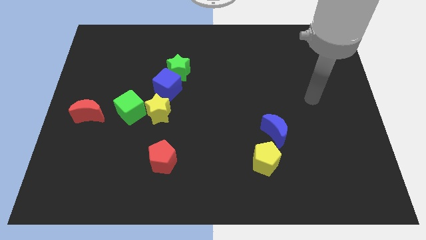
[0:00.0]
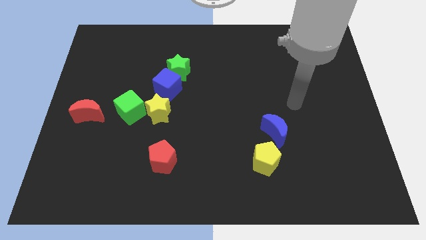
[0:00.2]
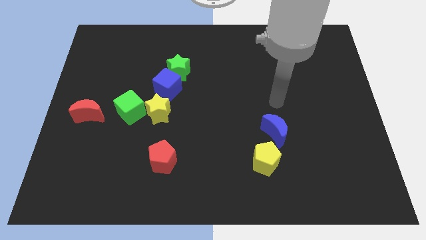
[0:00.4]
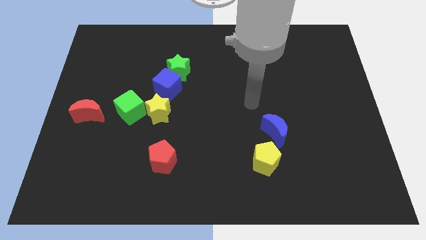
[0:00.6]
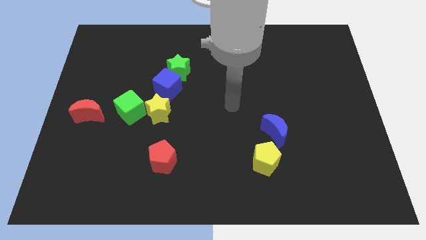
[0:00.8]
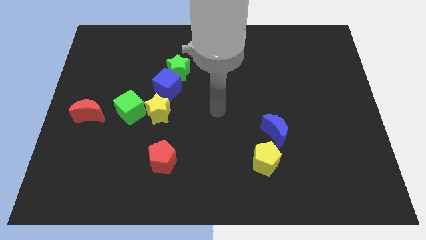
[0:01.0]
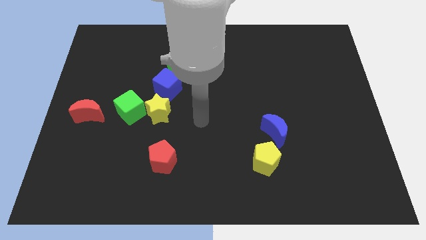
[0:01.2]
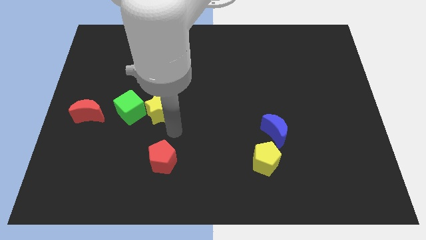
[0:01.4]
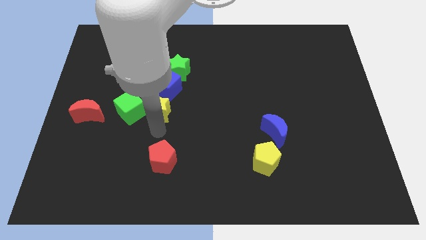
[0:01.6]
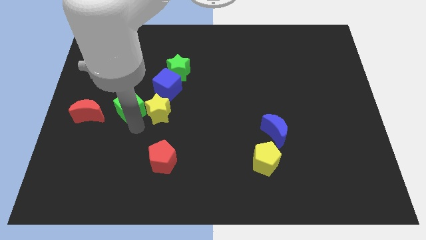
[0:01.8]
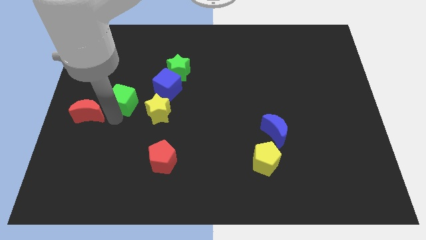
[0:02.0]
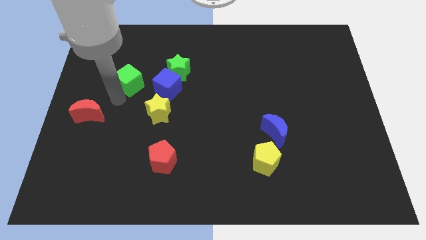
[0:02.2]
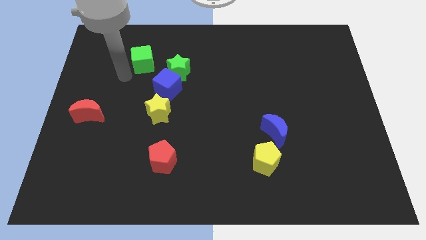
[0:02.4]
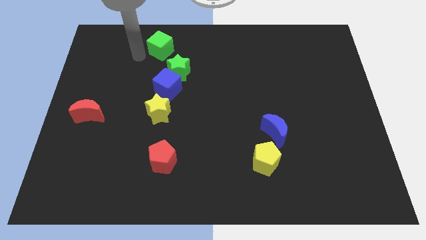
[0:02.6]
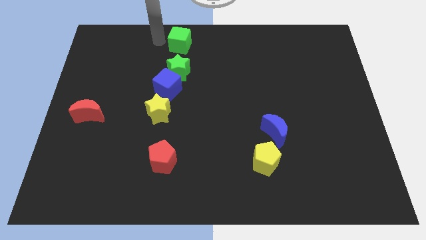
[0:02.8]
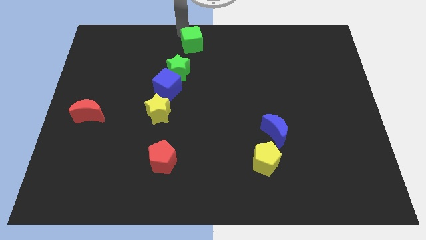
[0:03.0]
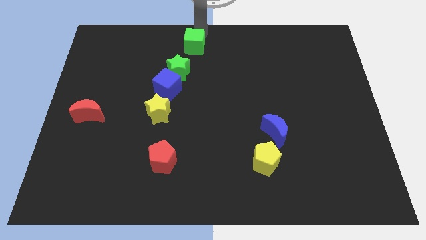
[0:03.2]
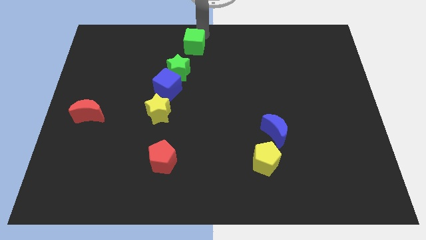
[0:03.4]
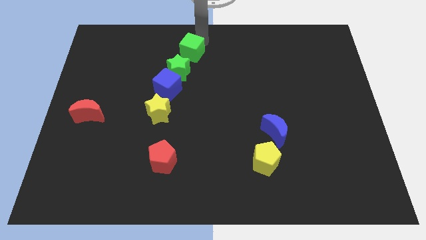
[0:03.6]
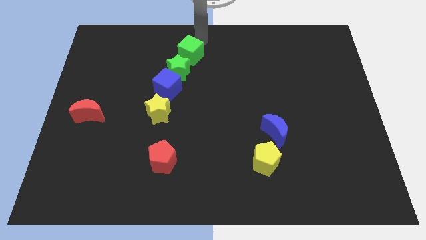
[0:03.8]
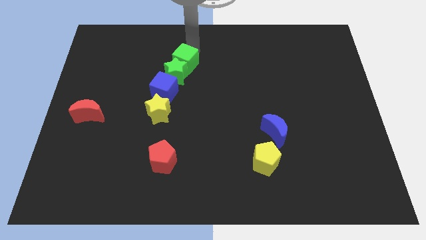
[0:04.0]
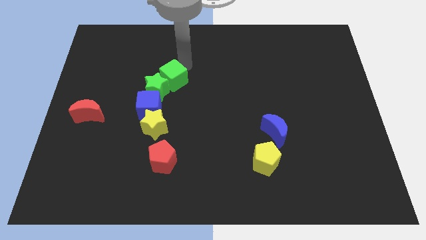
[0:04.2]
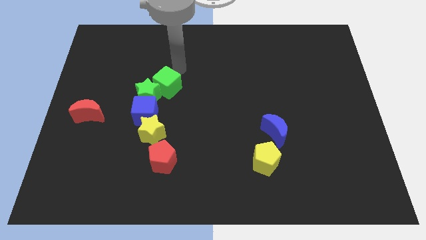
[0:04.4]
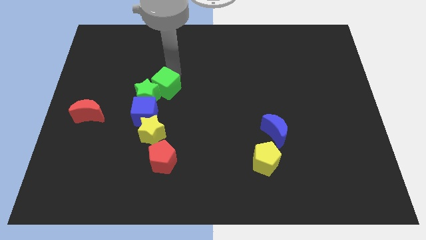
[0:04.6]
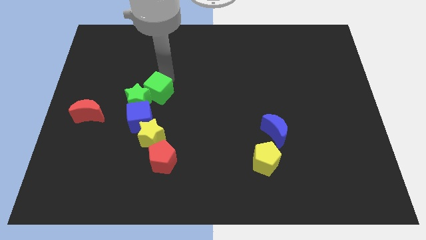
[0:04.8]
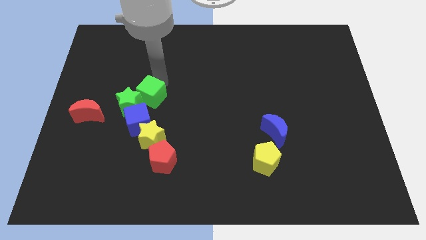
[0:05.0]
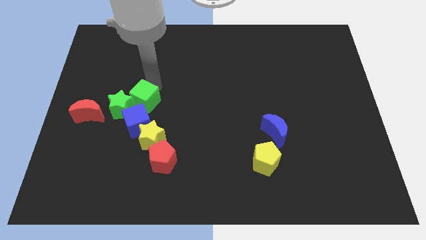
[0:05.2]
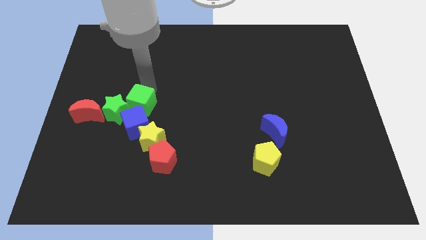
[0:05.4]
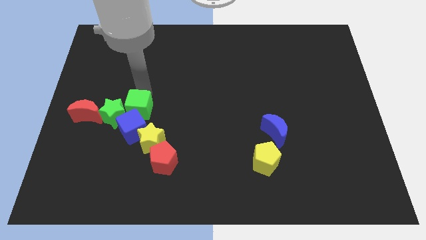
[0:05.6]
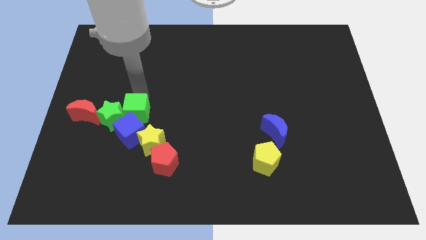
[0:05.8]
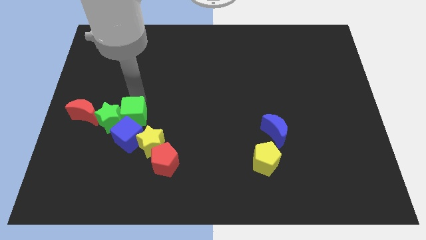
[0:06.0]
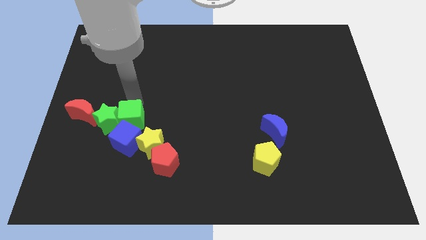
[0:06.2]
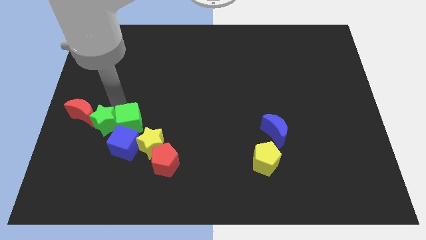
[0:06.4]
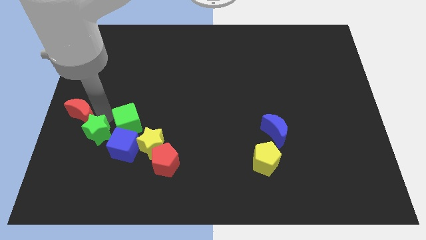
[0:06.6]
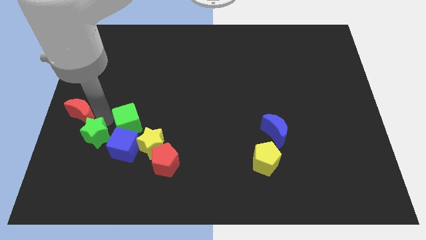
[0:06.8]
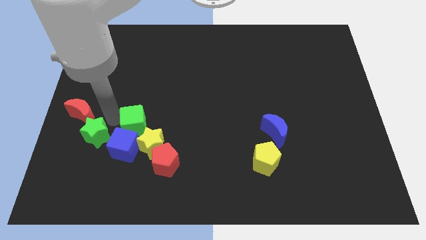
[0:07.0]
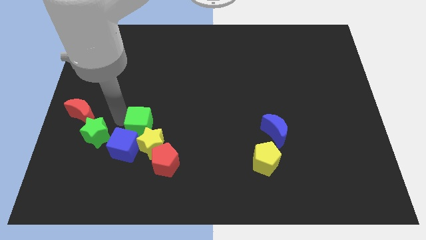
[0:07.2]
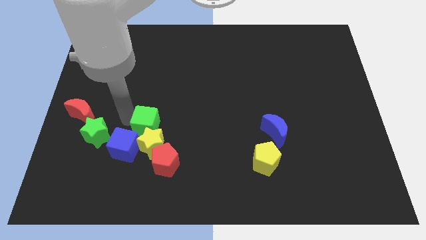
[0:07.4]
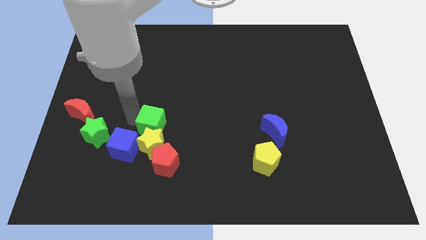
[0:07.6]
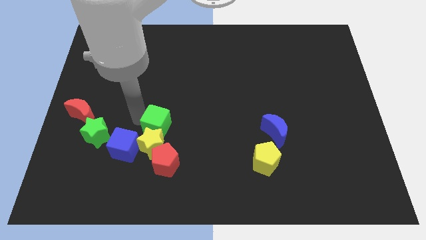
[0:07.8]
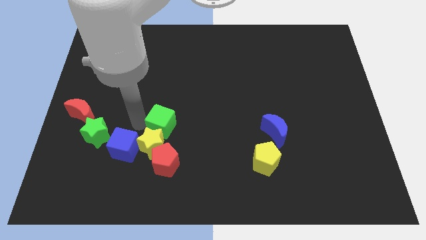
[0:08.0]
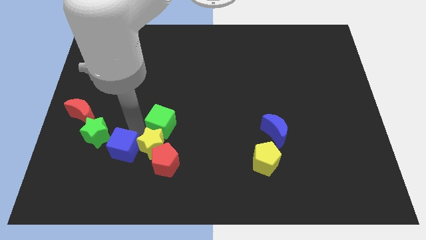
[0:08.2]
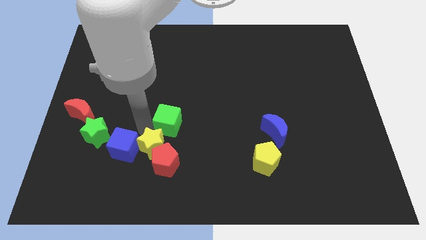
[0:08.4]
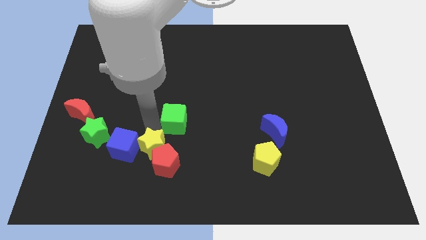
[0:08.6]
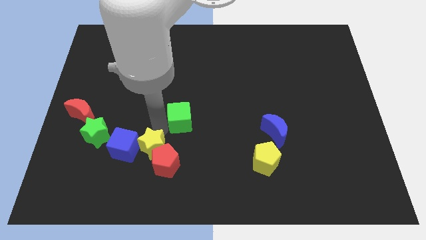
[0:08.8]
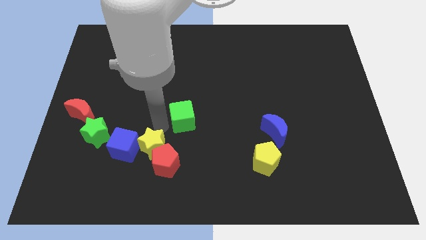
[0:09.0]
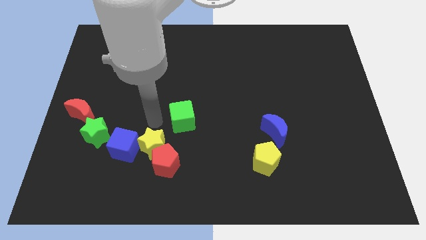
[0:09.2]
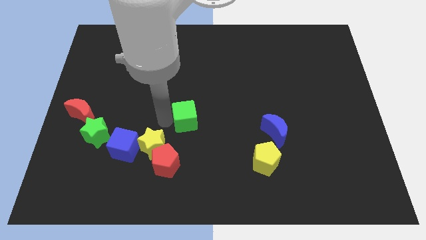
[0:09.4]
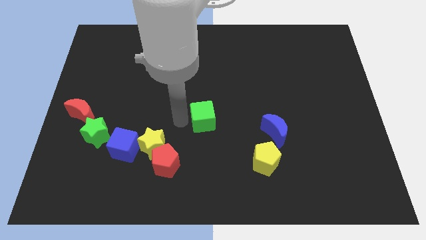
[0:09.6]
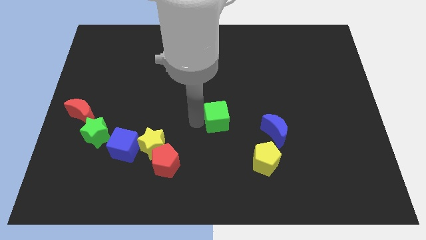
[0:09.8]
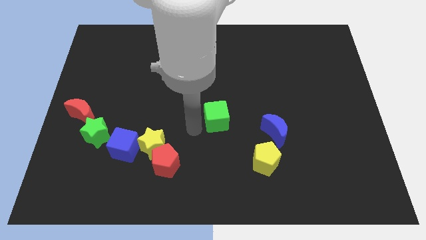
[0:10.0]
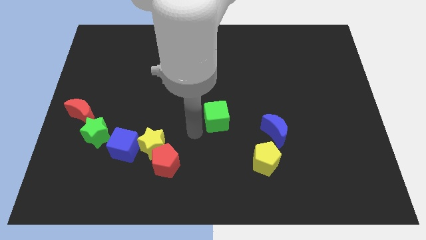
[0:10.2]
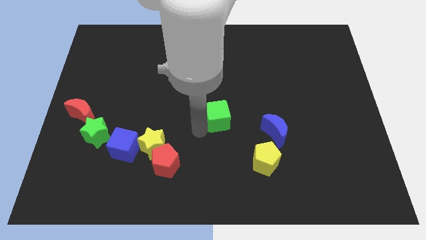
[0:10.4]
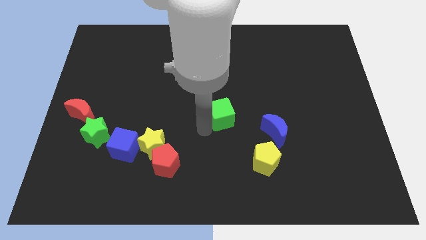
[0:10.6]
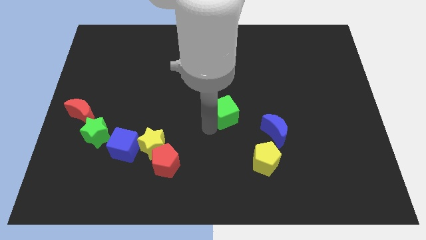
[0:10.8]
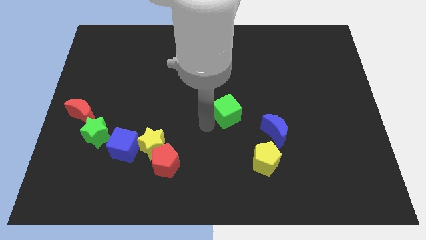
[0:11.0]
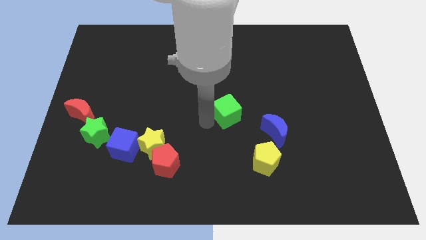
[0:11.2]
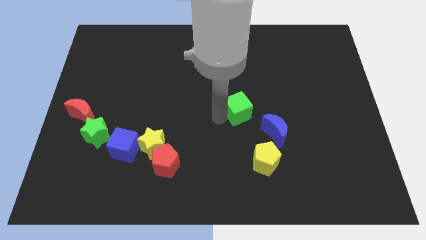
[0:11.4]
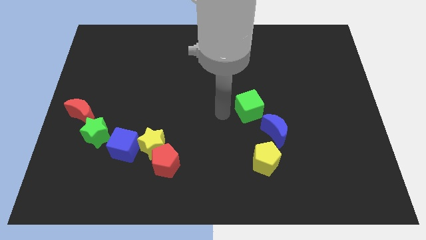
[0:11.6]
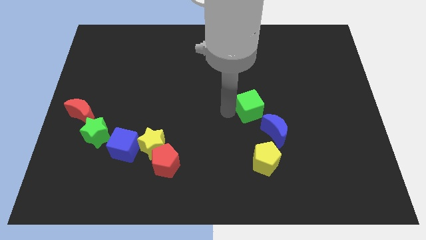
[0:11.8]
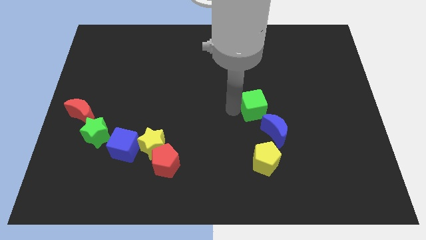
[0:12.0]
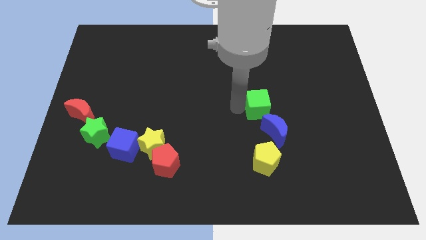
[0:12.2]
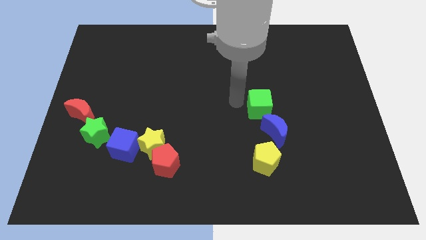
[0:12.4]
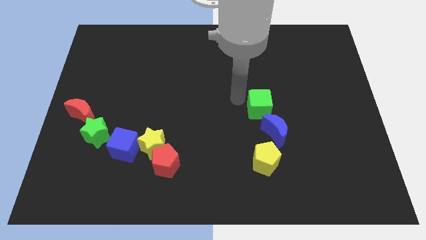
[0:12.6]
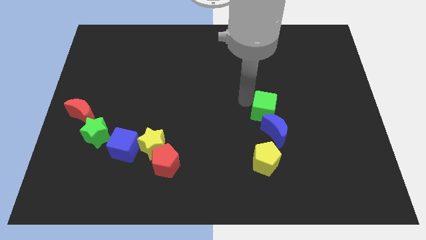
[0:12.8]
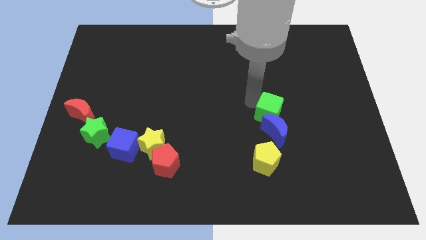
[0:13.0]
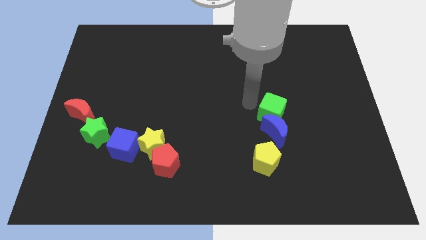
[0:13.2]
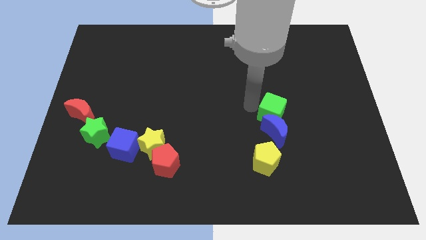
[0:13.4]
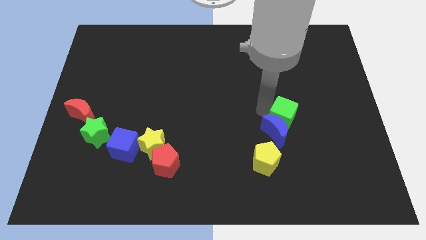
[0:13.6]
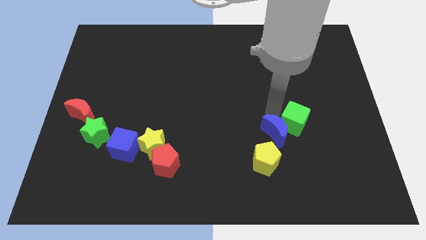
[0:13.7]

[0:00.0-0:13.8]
push the green cube right of the blue moon

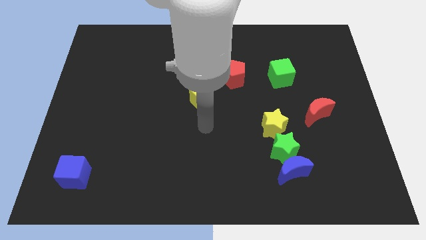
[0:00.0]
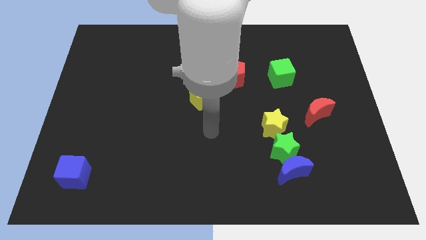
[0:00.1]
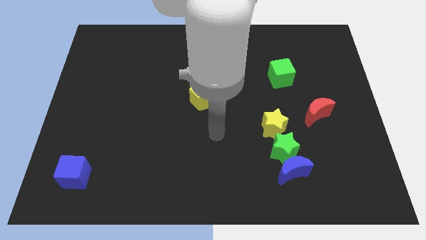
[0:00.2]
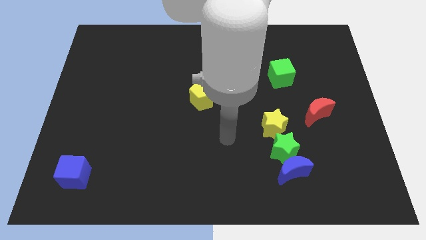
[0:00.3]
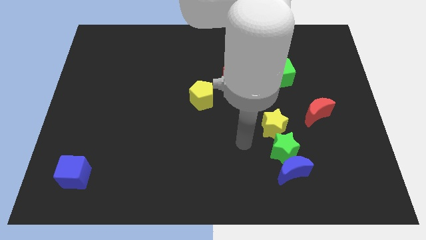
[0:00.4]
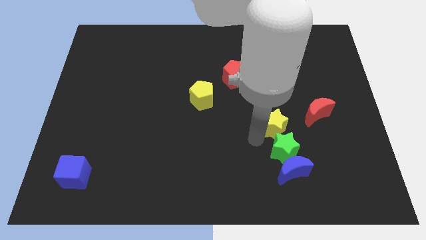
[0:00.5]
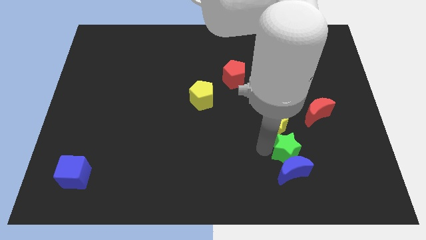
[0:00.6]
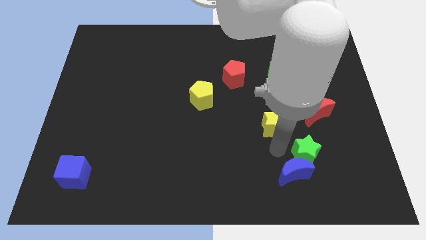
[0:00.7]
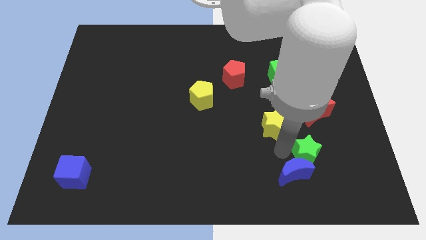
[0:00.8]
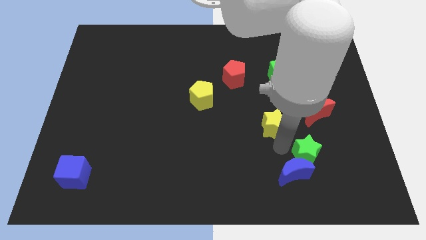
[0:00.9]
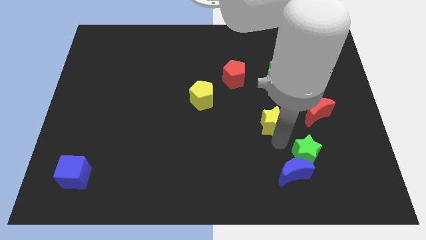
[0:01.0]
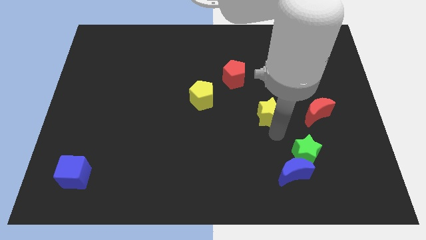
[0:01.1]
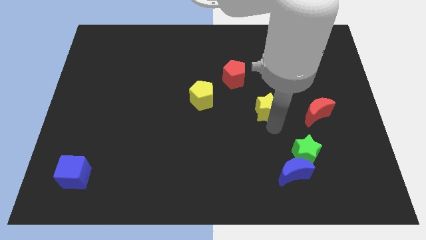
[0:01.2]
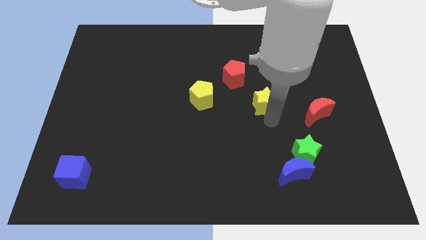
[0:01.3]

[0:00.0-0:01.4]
push the yellow star diagonally down and to the left of the green cube
